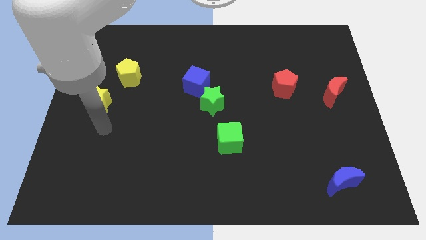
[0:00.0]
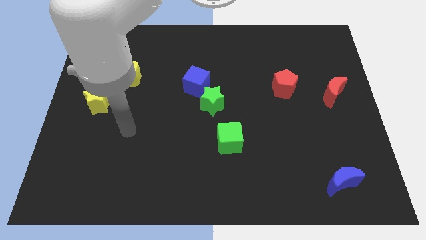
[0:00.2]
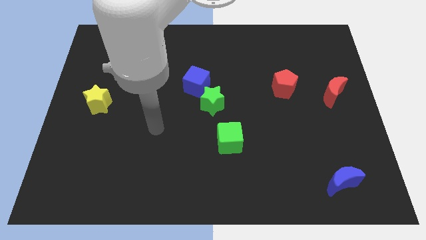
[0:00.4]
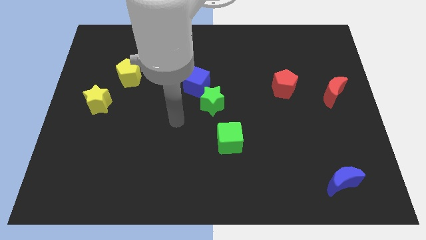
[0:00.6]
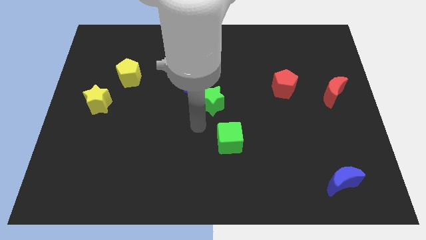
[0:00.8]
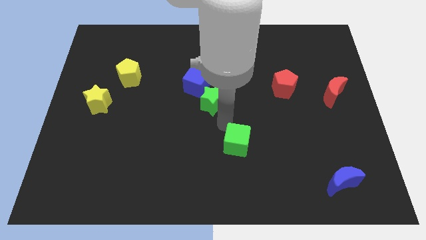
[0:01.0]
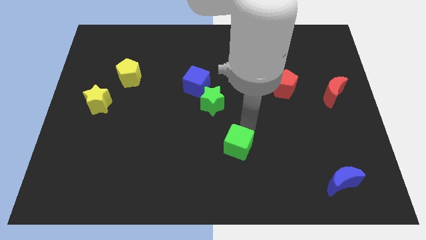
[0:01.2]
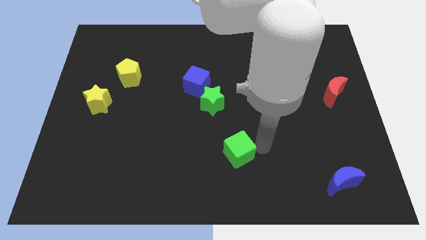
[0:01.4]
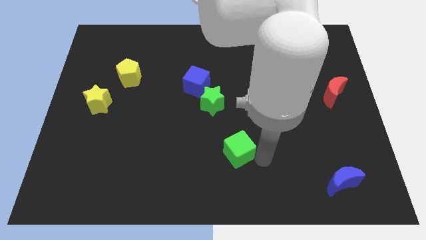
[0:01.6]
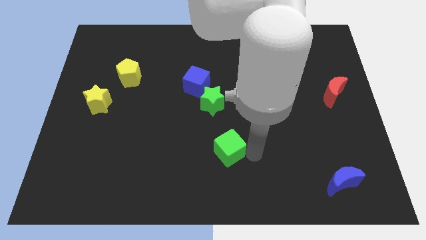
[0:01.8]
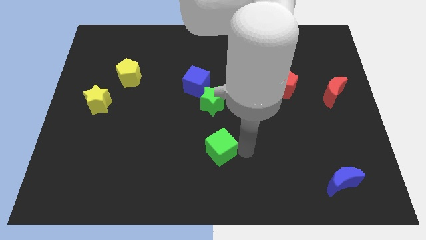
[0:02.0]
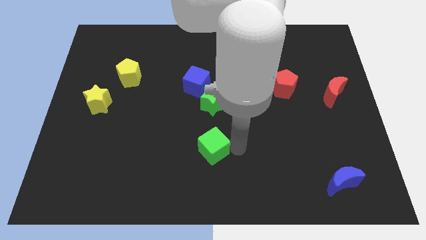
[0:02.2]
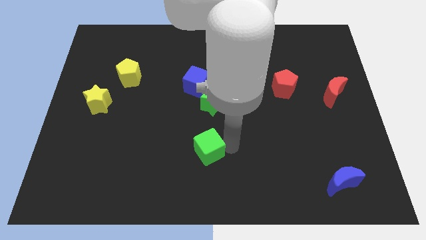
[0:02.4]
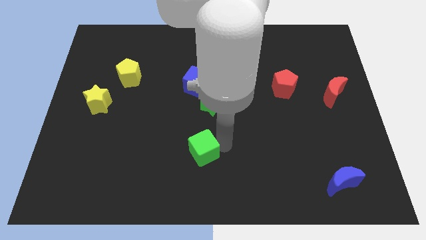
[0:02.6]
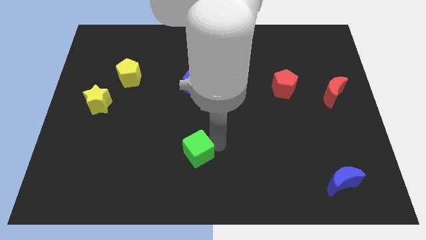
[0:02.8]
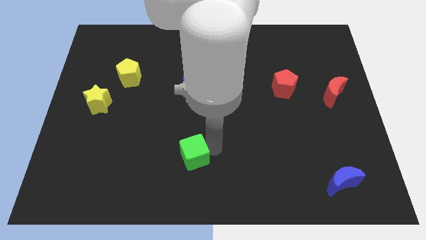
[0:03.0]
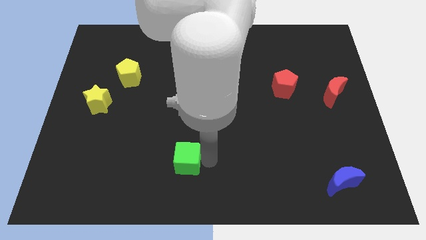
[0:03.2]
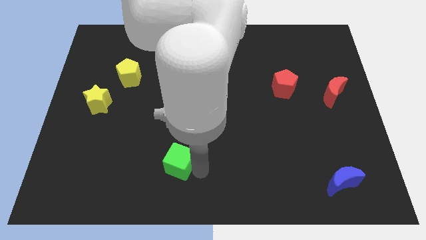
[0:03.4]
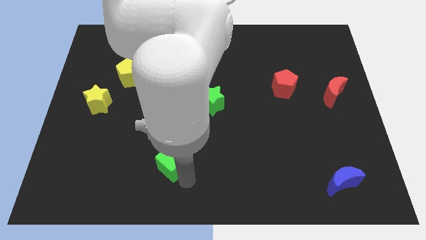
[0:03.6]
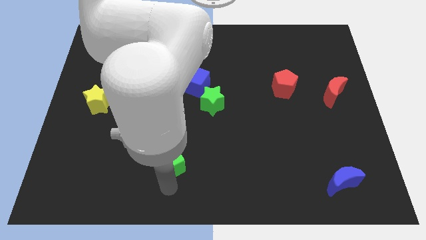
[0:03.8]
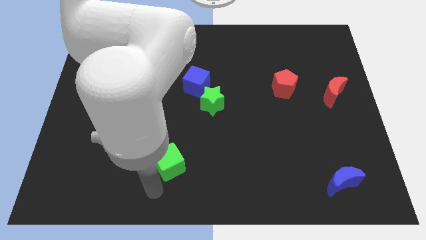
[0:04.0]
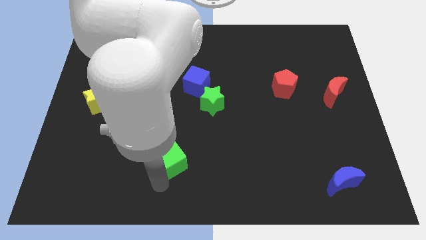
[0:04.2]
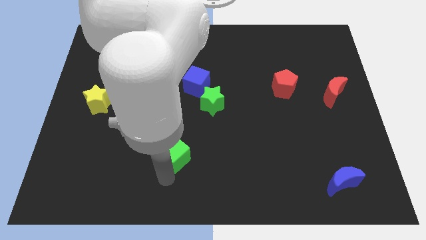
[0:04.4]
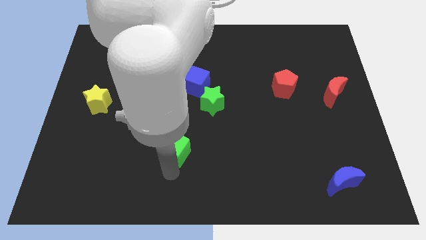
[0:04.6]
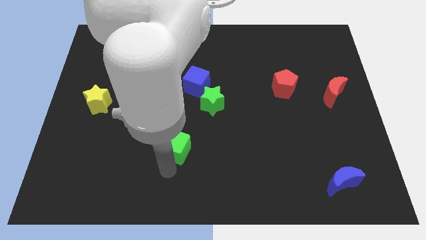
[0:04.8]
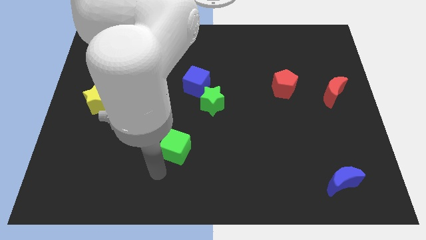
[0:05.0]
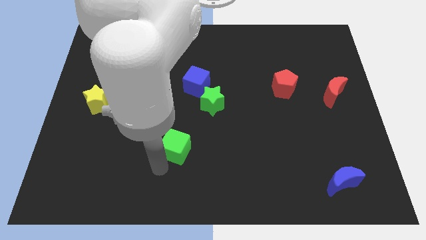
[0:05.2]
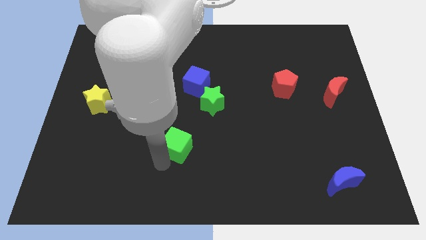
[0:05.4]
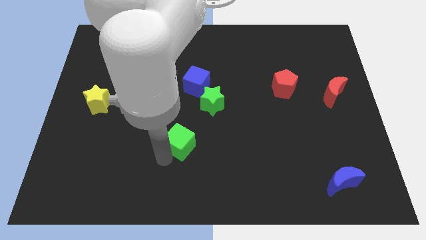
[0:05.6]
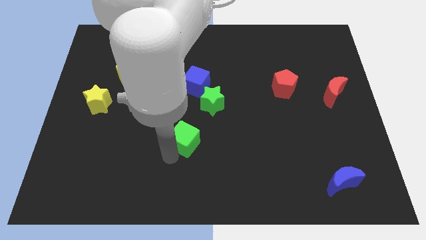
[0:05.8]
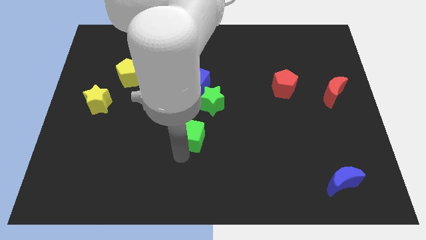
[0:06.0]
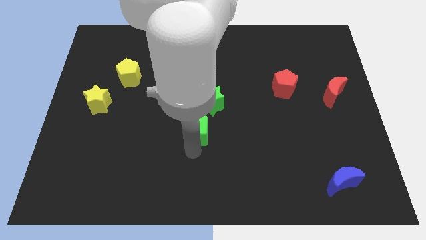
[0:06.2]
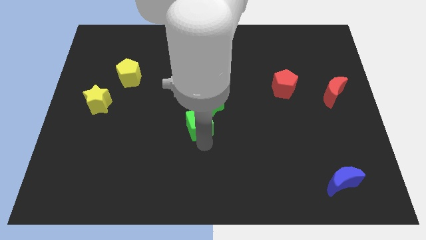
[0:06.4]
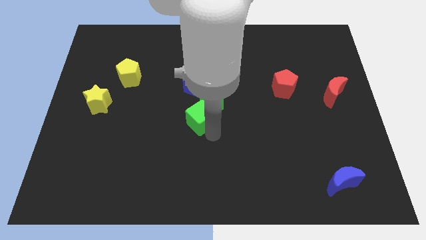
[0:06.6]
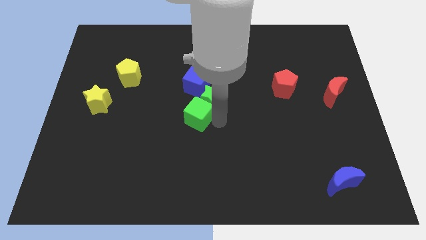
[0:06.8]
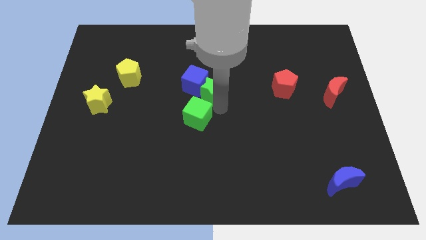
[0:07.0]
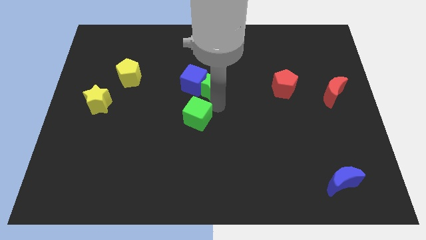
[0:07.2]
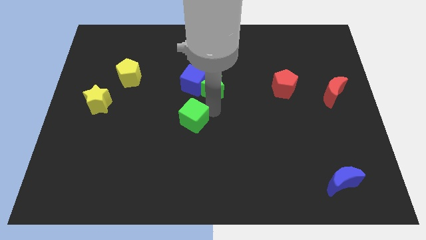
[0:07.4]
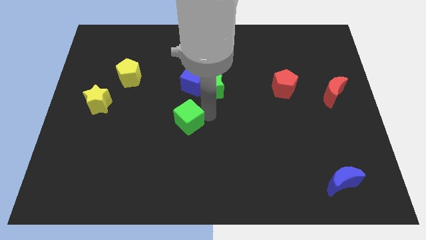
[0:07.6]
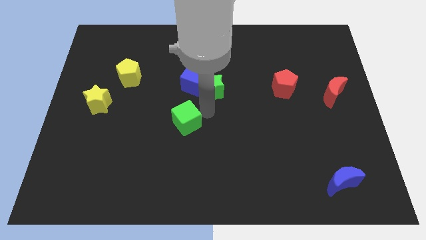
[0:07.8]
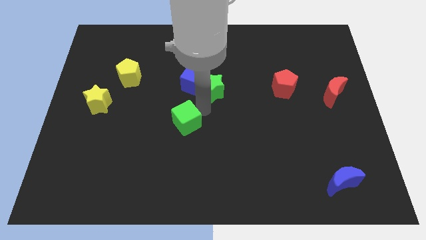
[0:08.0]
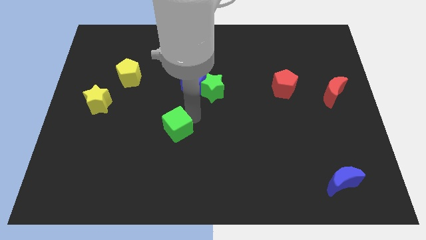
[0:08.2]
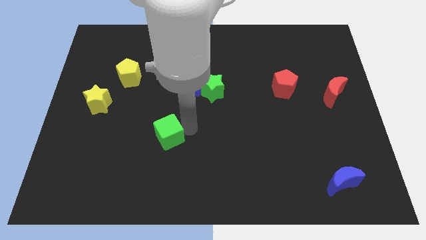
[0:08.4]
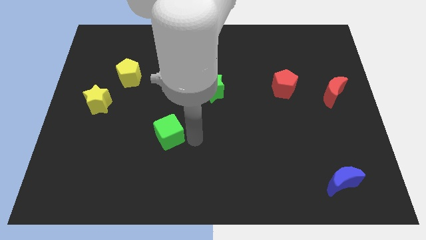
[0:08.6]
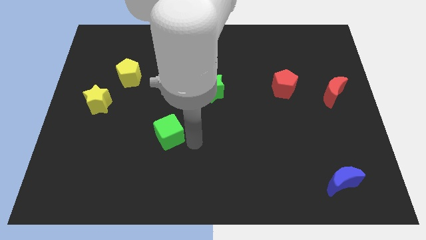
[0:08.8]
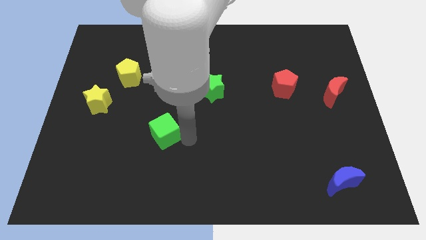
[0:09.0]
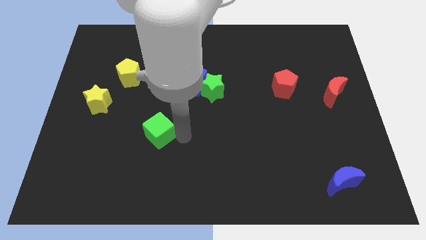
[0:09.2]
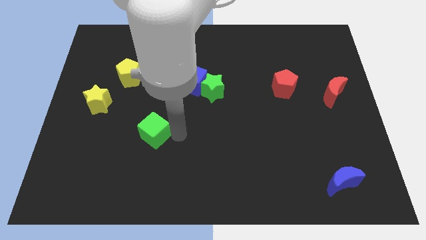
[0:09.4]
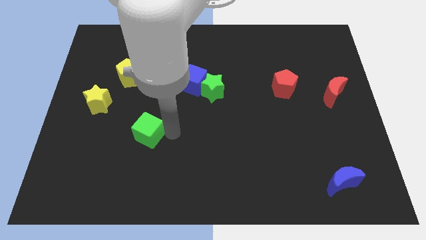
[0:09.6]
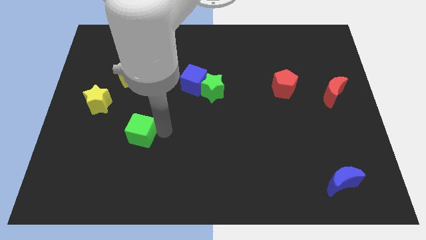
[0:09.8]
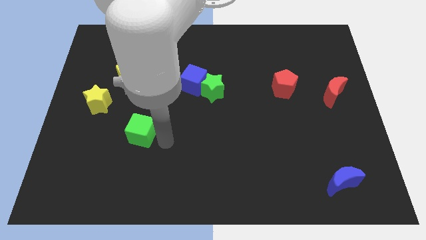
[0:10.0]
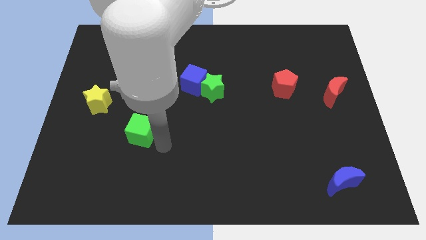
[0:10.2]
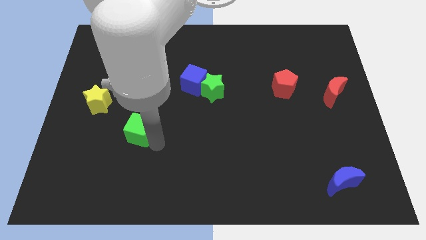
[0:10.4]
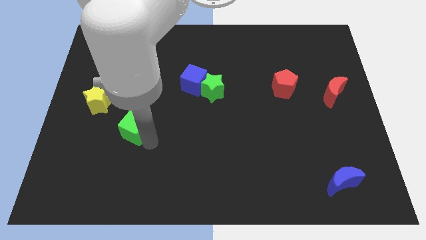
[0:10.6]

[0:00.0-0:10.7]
push the green cube to the bottom right of the yellow star

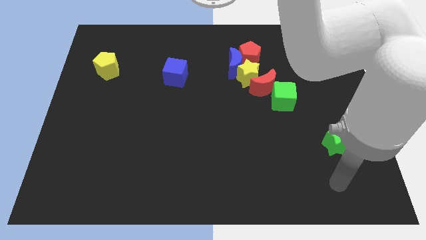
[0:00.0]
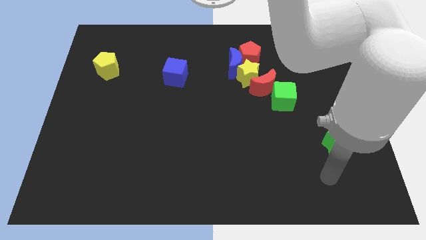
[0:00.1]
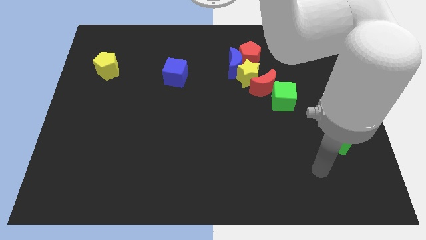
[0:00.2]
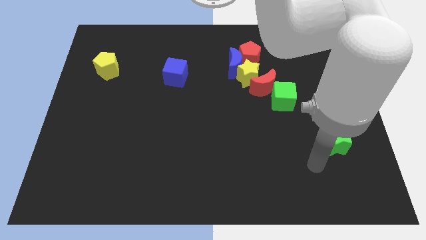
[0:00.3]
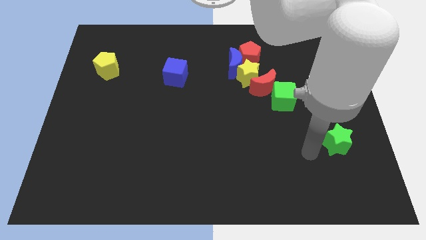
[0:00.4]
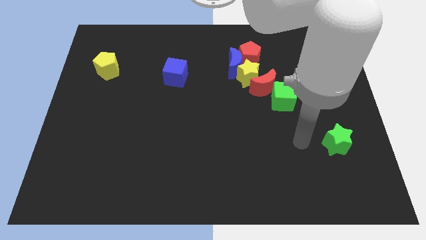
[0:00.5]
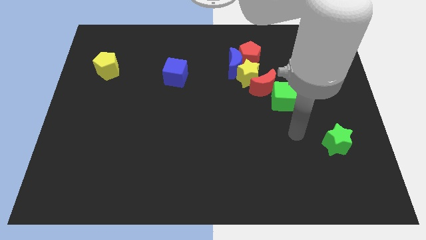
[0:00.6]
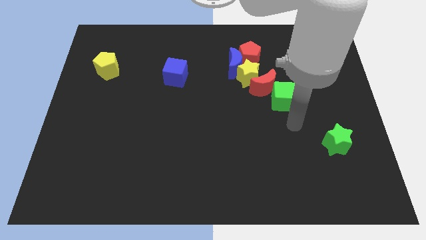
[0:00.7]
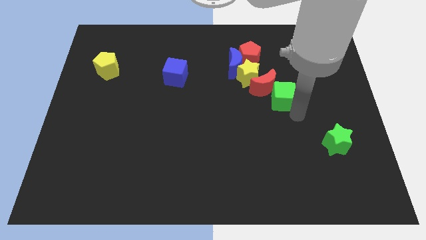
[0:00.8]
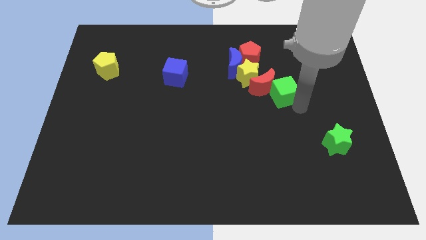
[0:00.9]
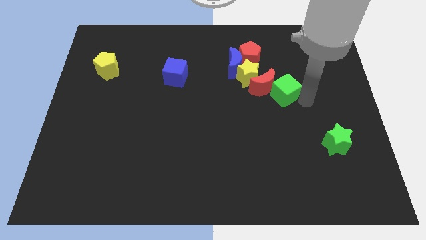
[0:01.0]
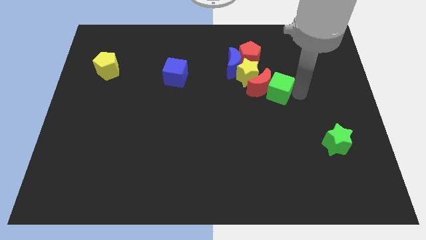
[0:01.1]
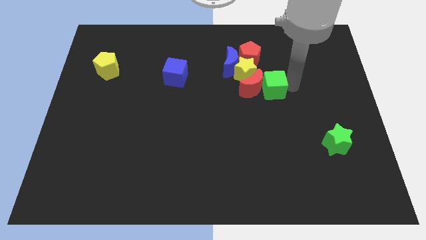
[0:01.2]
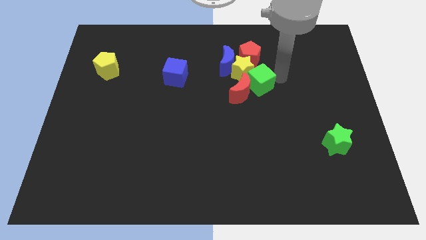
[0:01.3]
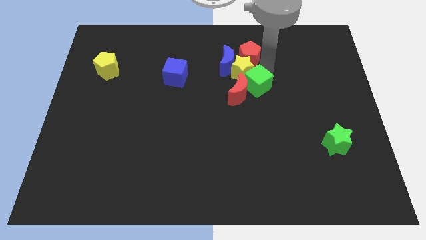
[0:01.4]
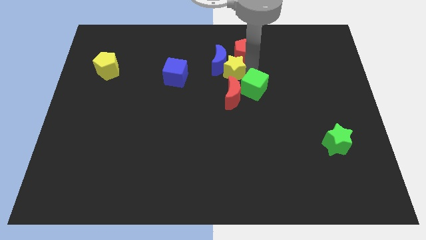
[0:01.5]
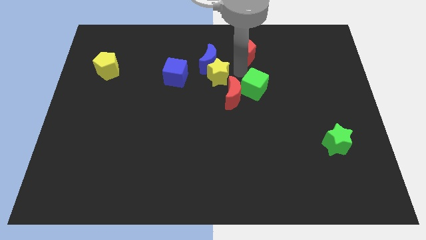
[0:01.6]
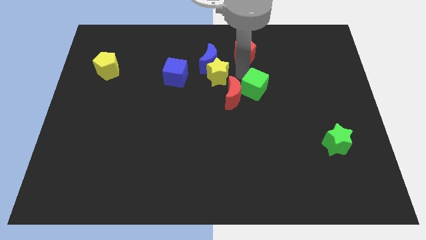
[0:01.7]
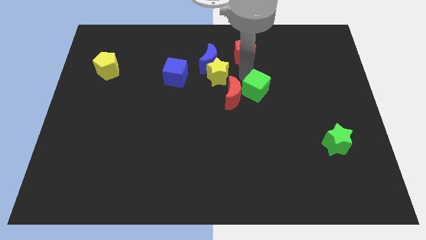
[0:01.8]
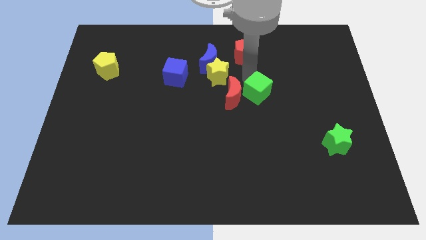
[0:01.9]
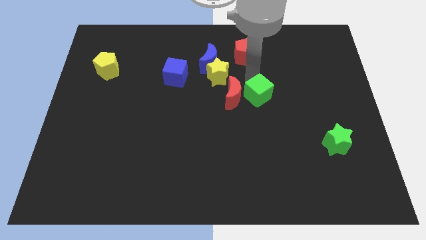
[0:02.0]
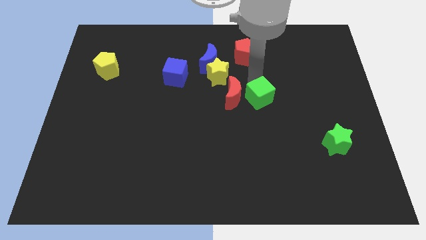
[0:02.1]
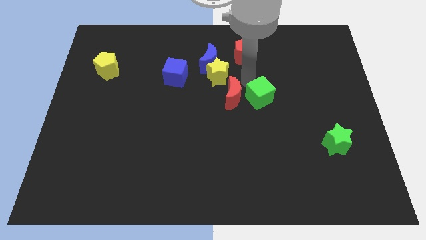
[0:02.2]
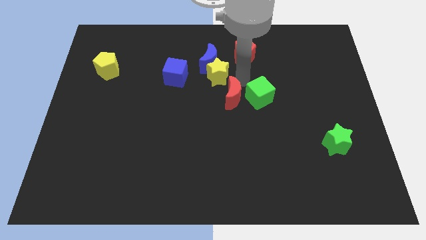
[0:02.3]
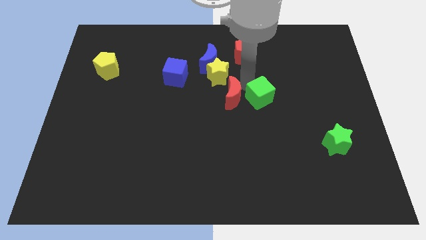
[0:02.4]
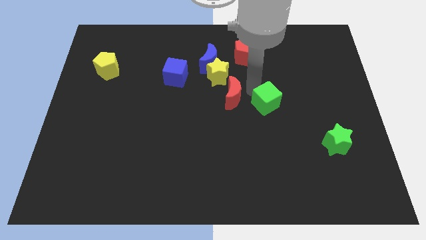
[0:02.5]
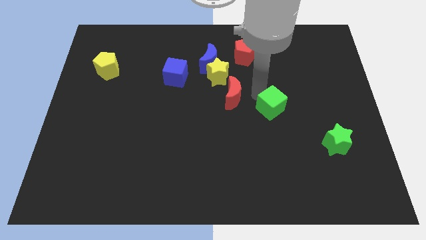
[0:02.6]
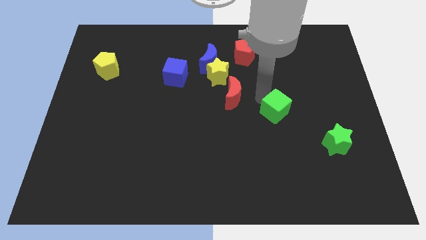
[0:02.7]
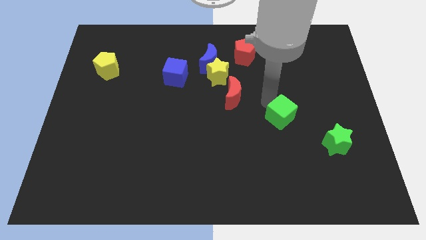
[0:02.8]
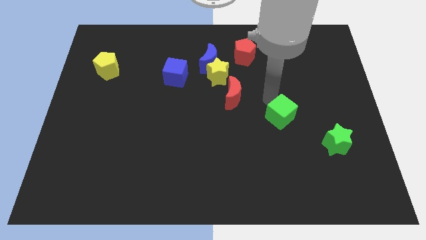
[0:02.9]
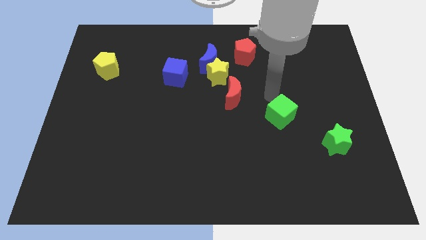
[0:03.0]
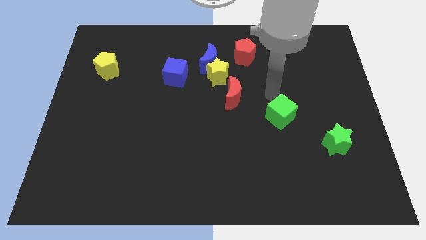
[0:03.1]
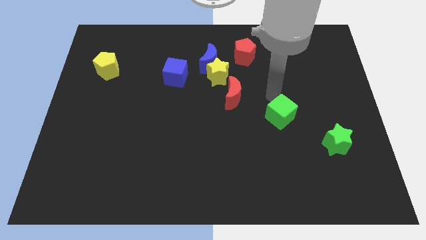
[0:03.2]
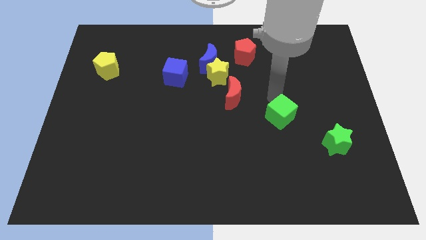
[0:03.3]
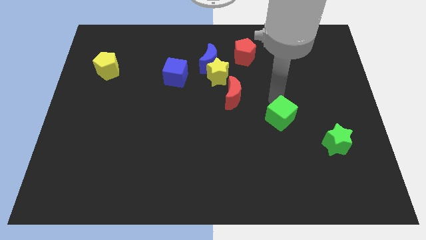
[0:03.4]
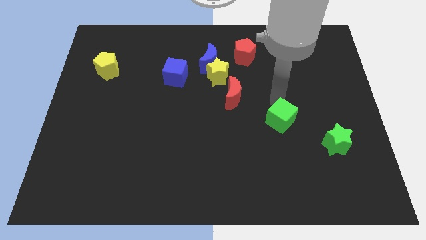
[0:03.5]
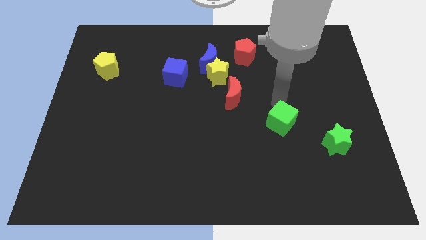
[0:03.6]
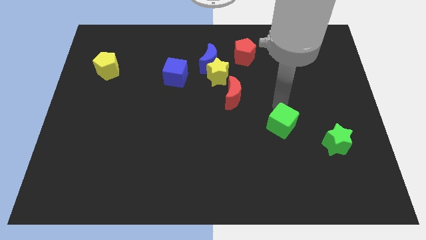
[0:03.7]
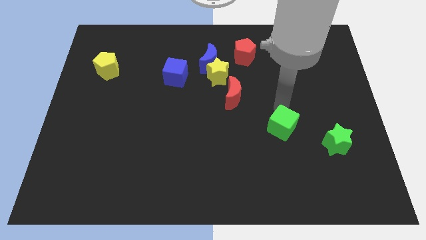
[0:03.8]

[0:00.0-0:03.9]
slide the green cube to the left side of the green star
